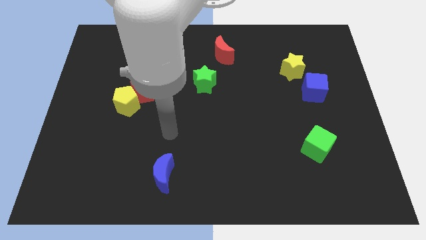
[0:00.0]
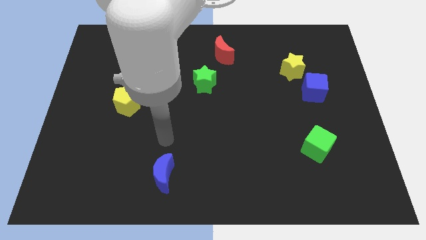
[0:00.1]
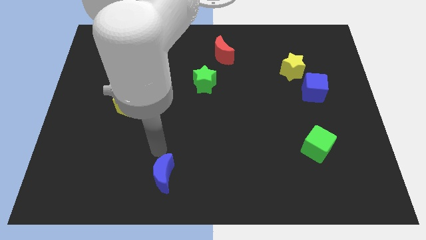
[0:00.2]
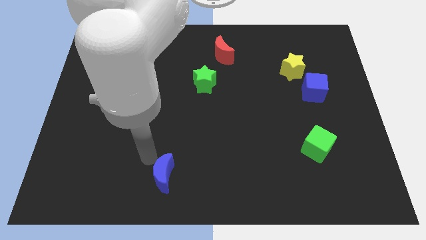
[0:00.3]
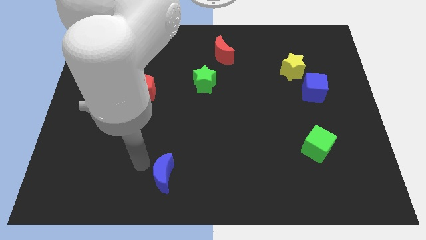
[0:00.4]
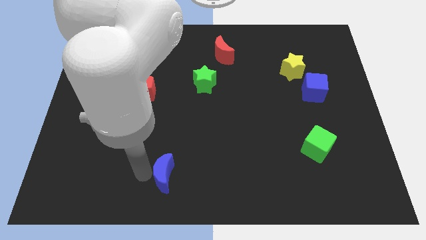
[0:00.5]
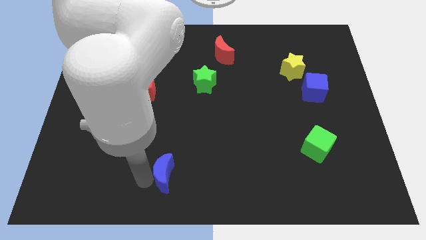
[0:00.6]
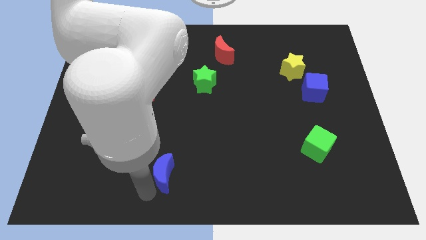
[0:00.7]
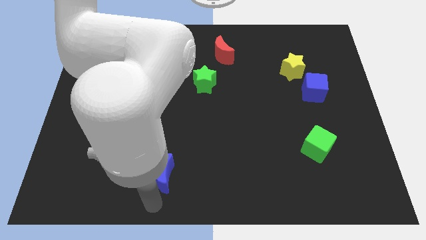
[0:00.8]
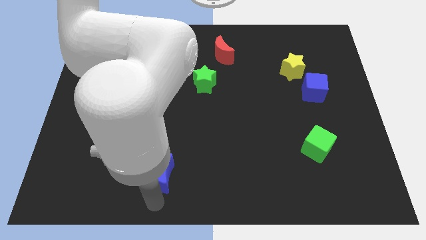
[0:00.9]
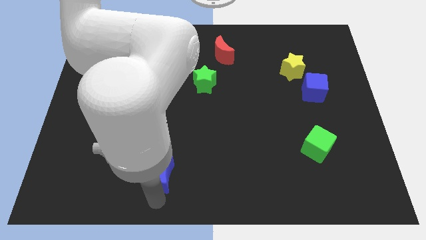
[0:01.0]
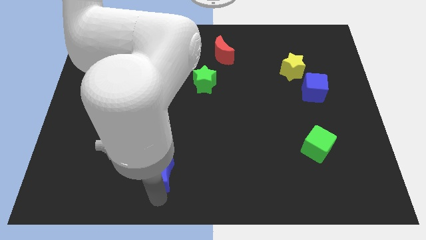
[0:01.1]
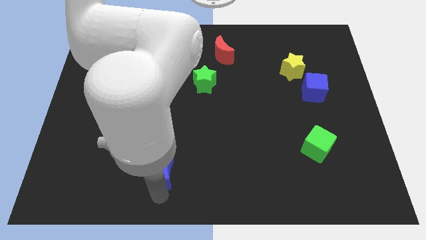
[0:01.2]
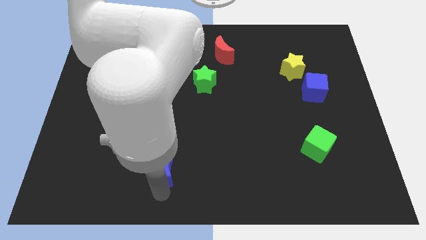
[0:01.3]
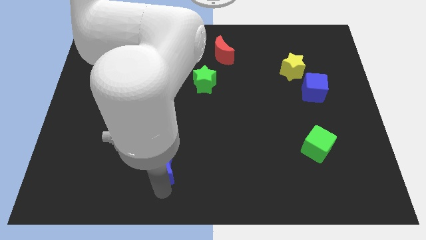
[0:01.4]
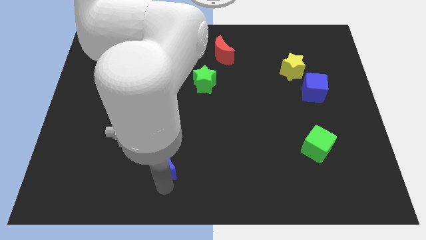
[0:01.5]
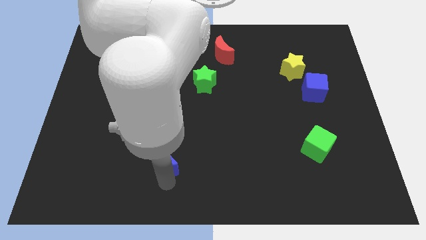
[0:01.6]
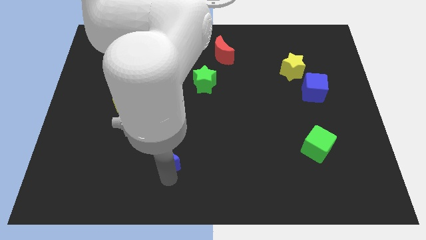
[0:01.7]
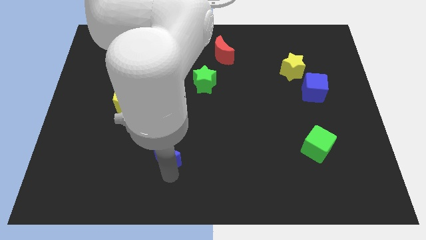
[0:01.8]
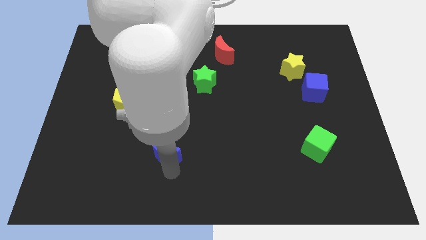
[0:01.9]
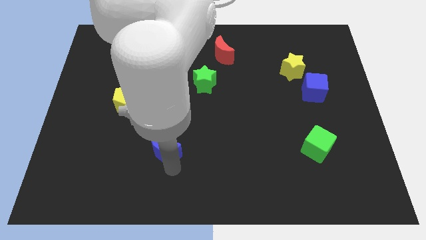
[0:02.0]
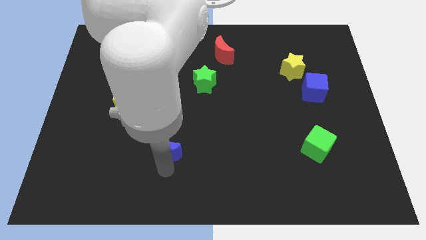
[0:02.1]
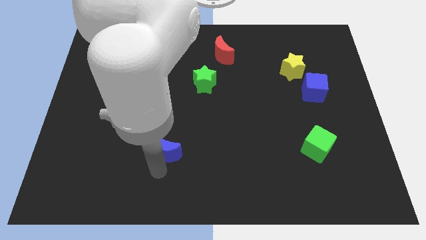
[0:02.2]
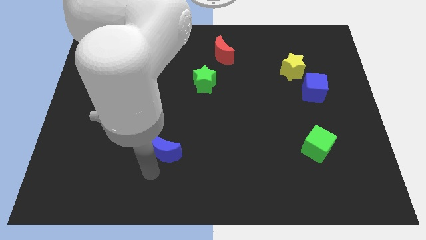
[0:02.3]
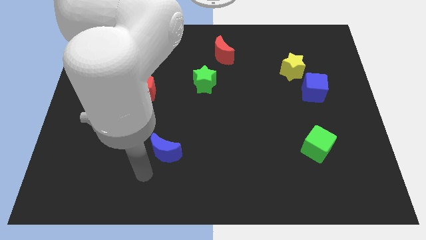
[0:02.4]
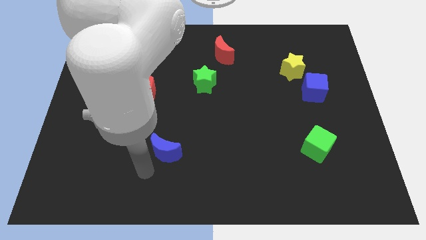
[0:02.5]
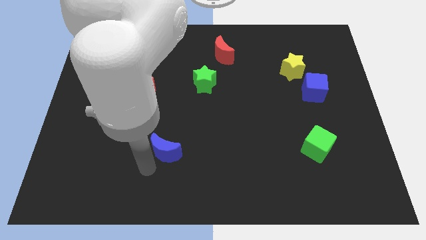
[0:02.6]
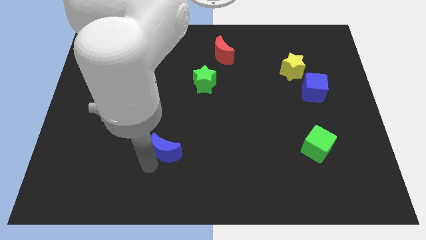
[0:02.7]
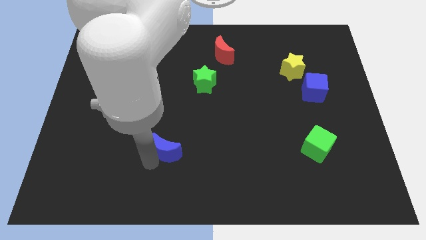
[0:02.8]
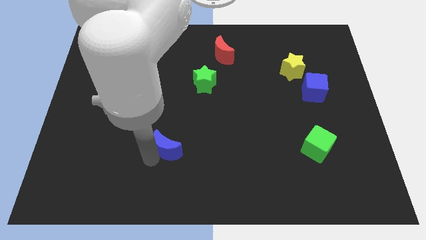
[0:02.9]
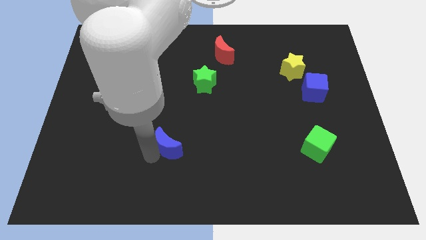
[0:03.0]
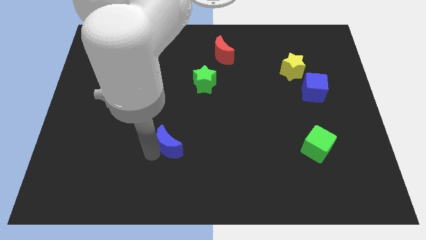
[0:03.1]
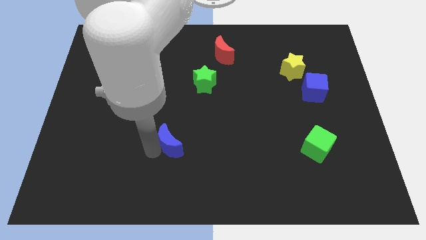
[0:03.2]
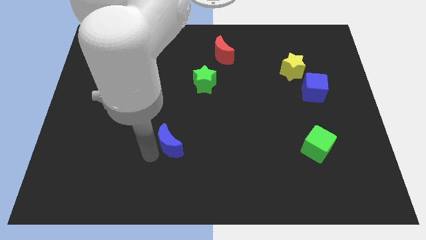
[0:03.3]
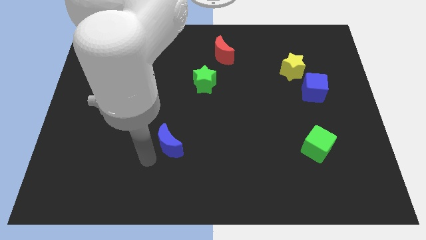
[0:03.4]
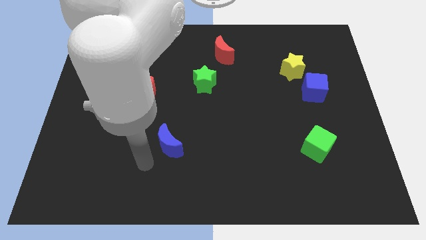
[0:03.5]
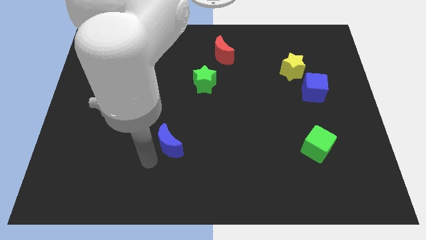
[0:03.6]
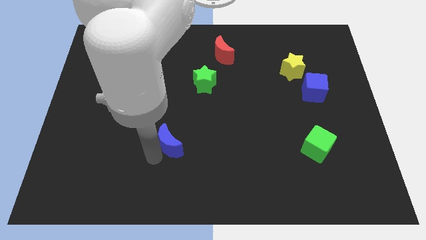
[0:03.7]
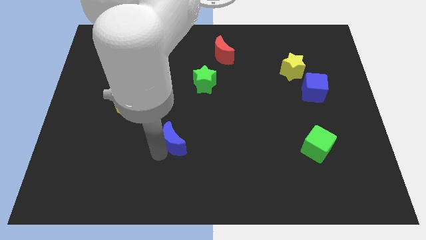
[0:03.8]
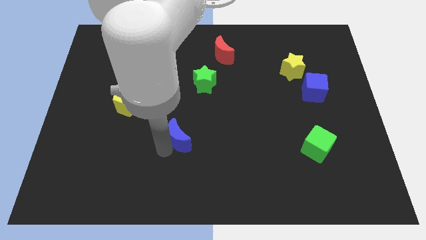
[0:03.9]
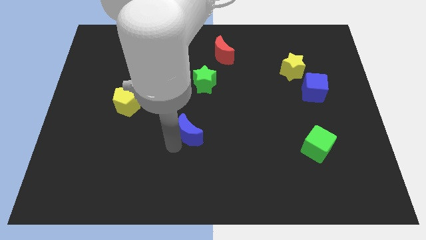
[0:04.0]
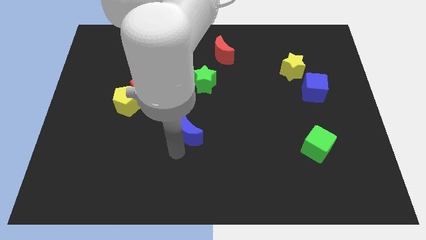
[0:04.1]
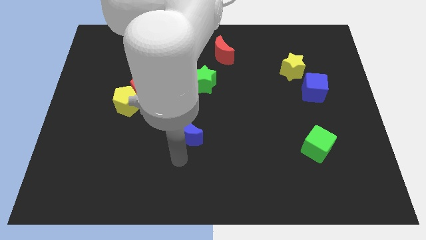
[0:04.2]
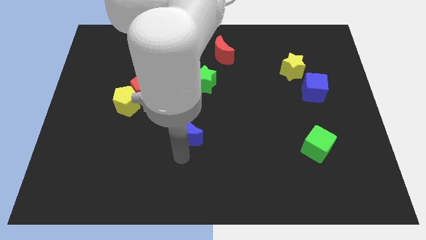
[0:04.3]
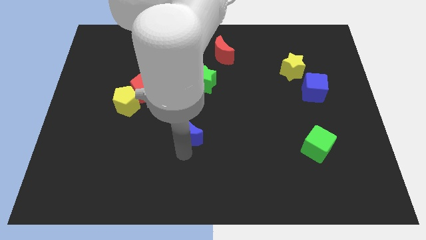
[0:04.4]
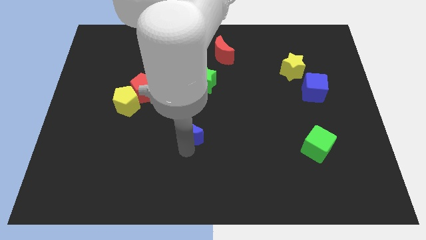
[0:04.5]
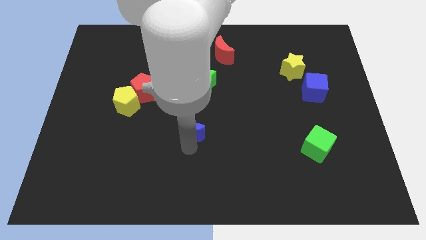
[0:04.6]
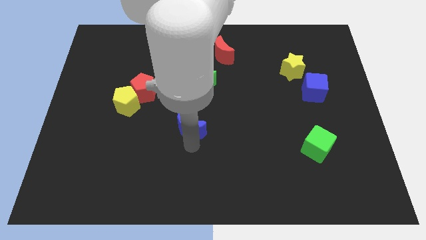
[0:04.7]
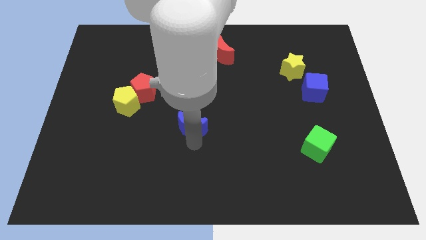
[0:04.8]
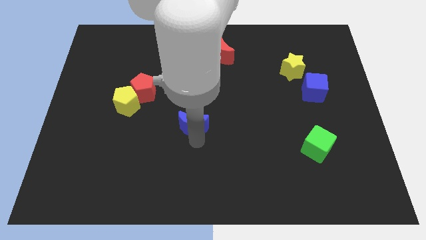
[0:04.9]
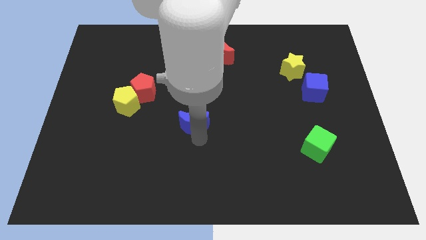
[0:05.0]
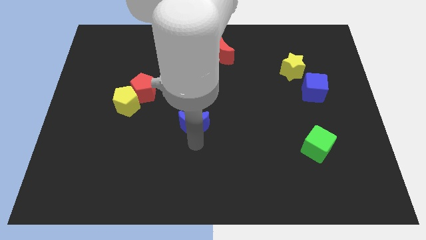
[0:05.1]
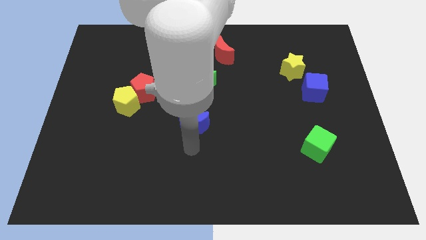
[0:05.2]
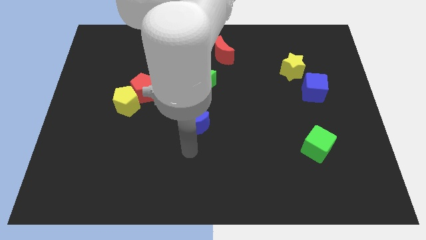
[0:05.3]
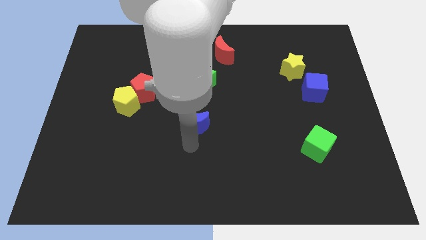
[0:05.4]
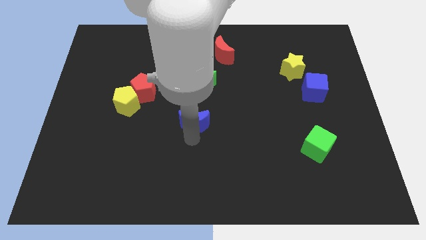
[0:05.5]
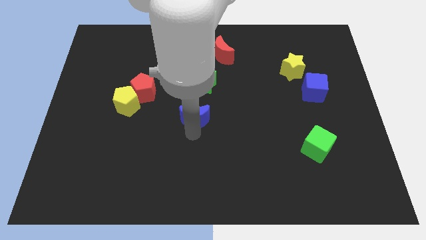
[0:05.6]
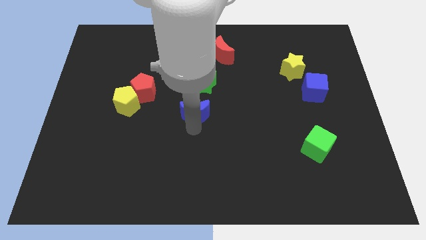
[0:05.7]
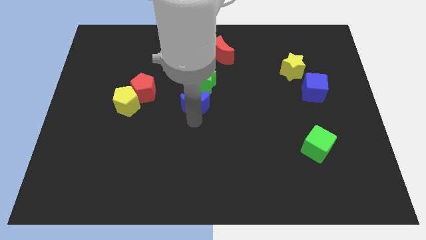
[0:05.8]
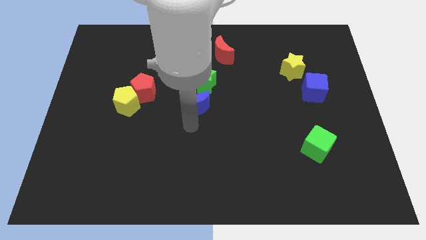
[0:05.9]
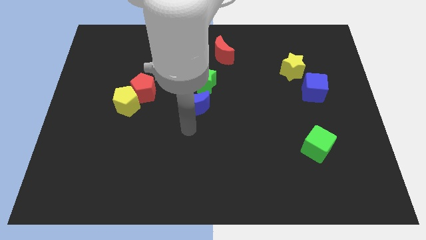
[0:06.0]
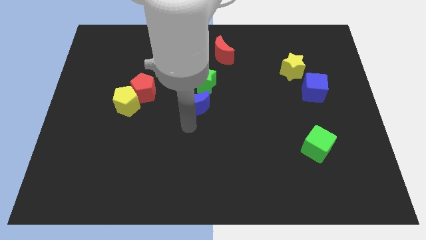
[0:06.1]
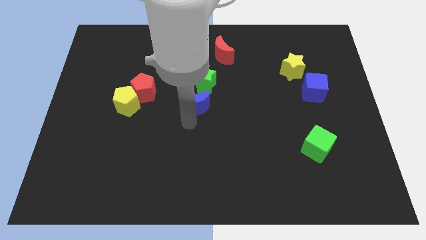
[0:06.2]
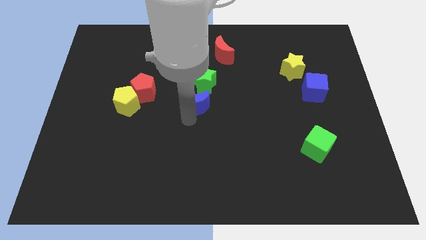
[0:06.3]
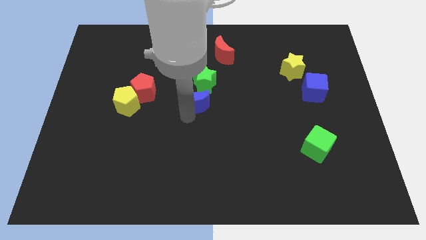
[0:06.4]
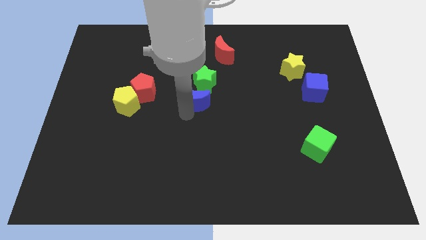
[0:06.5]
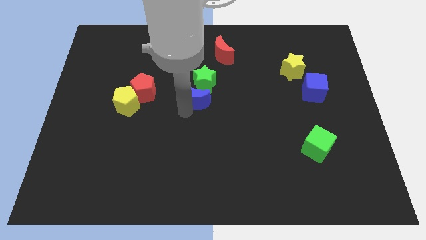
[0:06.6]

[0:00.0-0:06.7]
push the blue moon next to the green star

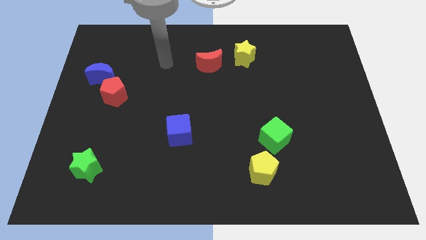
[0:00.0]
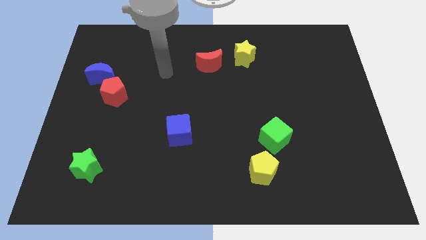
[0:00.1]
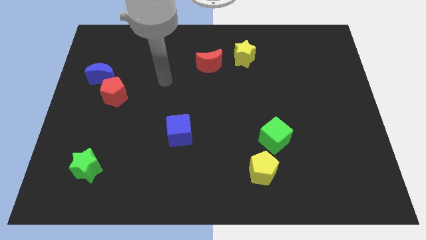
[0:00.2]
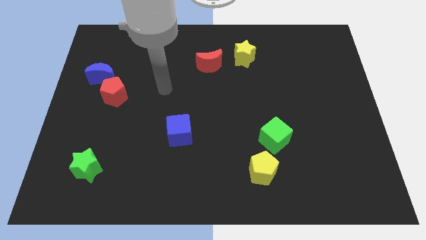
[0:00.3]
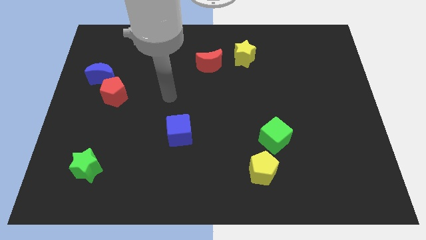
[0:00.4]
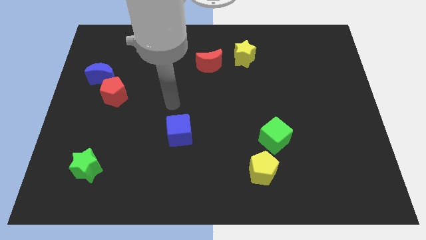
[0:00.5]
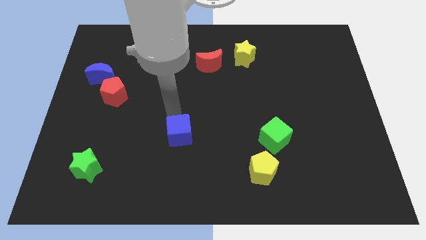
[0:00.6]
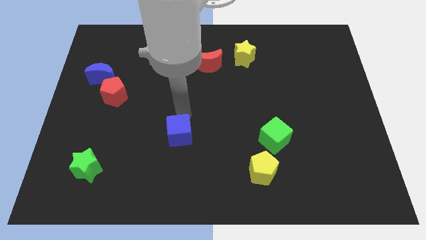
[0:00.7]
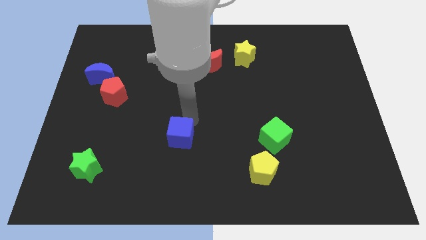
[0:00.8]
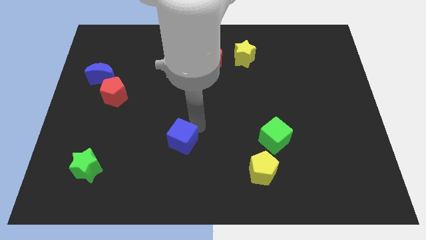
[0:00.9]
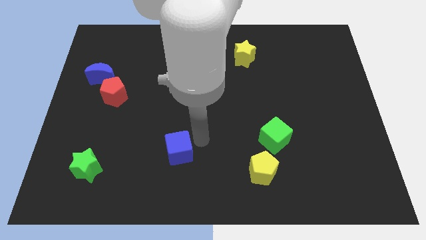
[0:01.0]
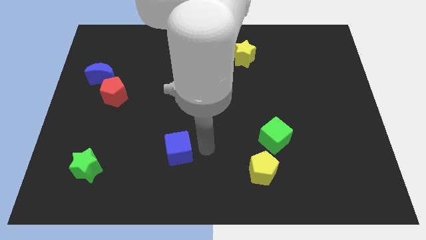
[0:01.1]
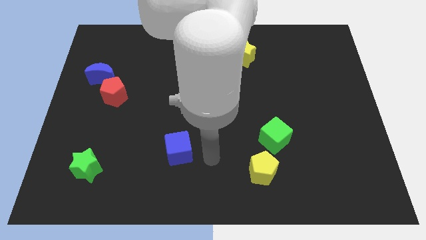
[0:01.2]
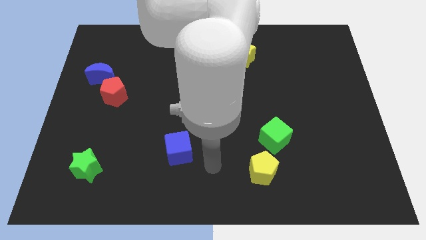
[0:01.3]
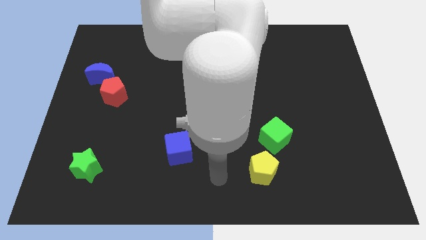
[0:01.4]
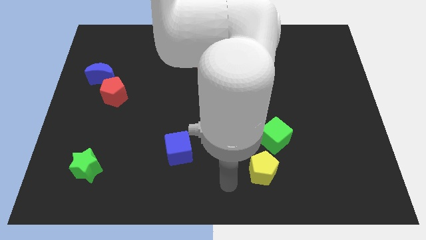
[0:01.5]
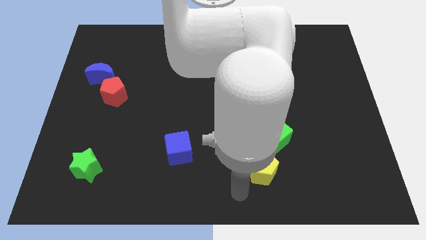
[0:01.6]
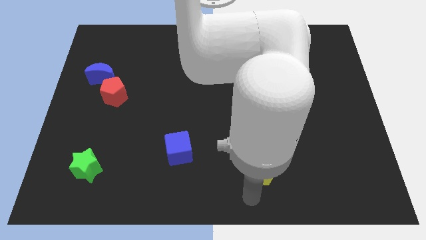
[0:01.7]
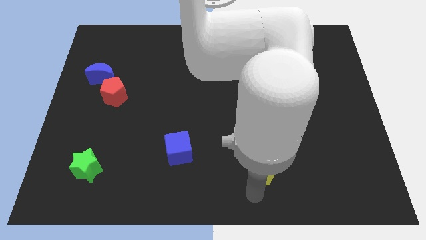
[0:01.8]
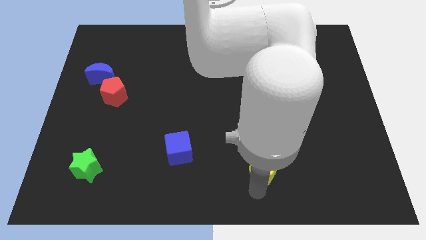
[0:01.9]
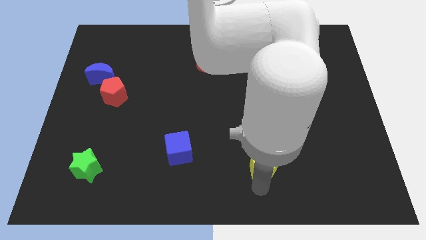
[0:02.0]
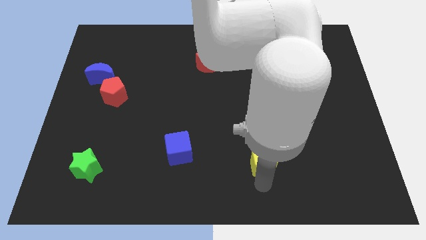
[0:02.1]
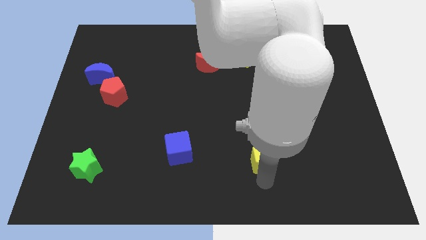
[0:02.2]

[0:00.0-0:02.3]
slide the yellow pentagon close to the green cube
